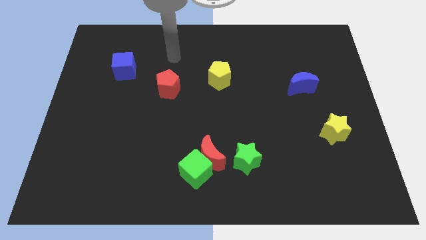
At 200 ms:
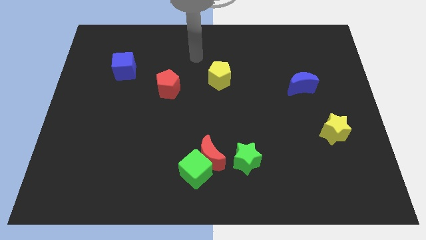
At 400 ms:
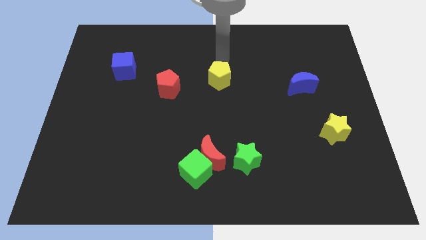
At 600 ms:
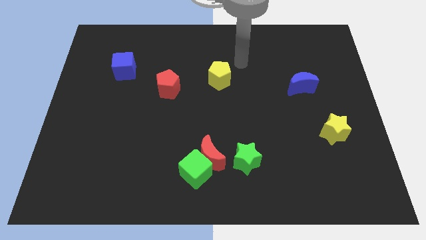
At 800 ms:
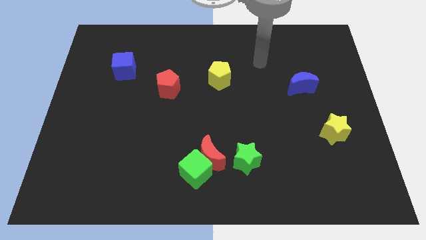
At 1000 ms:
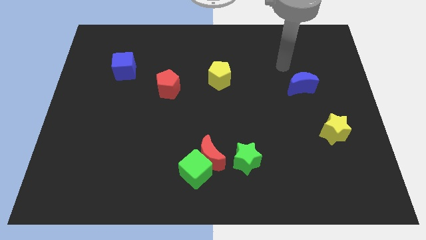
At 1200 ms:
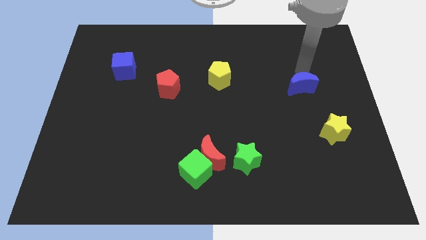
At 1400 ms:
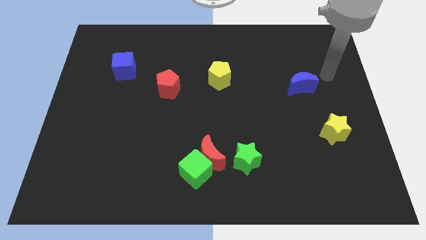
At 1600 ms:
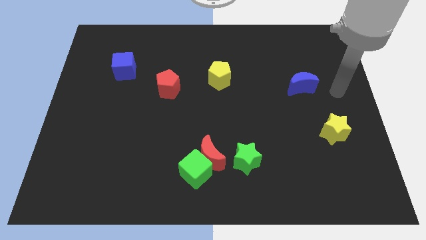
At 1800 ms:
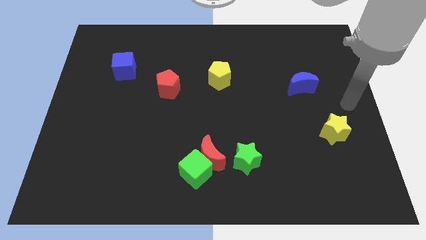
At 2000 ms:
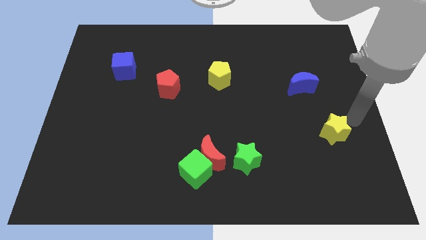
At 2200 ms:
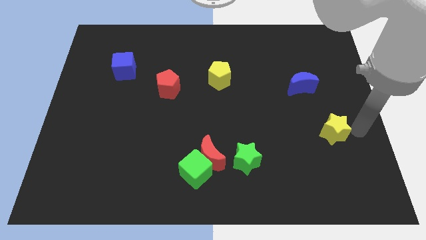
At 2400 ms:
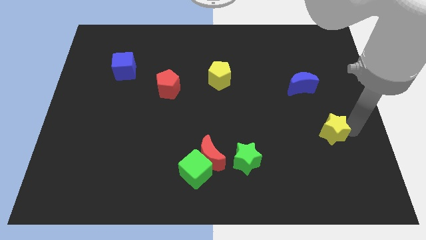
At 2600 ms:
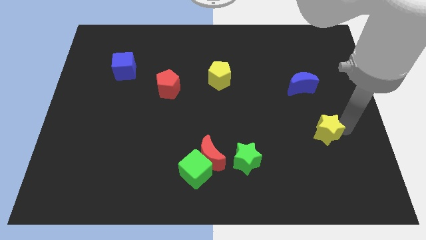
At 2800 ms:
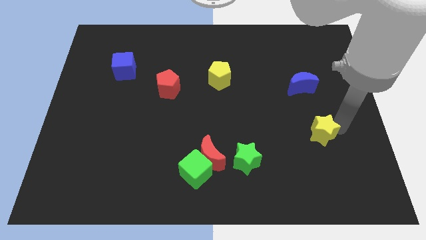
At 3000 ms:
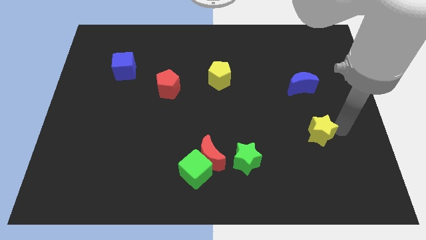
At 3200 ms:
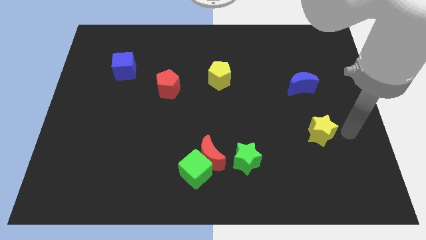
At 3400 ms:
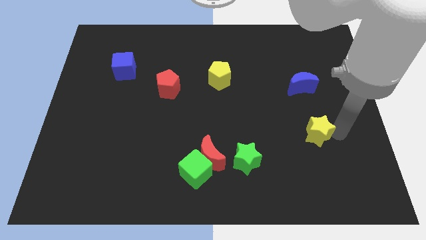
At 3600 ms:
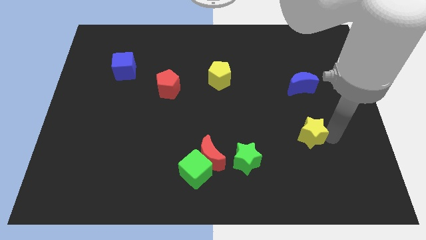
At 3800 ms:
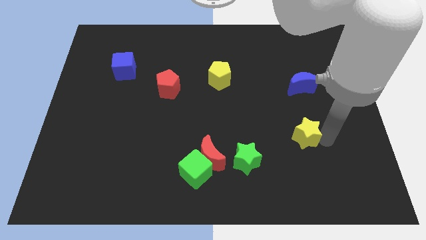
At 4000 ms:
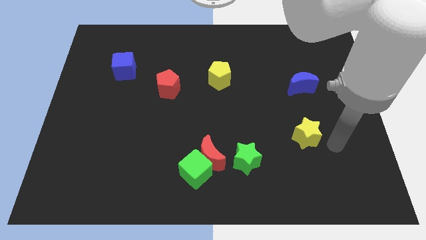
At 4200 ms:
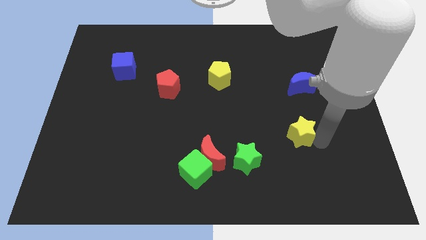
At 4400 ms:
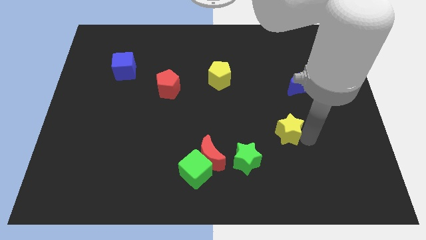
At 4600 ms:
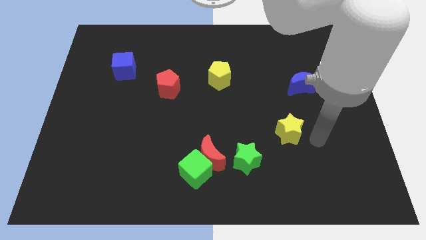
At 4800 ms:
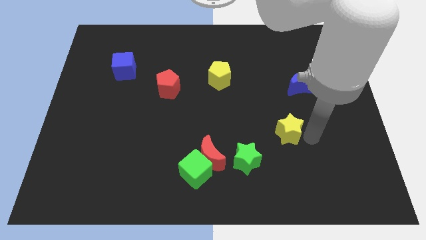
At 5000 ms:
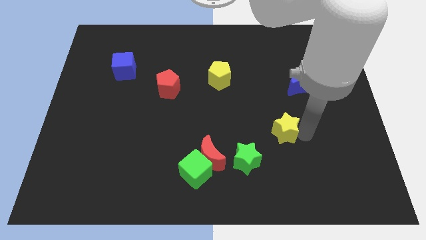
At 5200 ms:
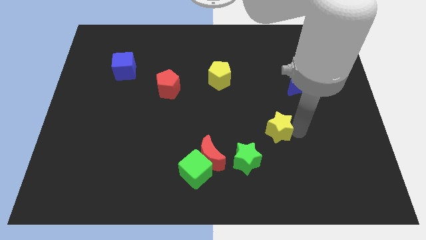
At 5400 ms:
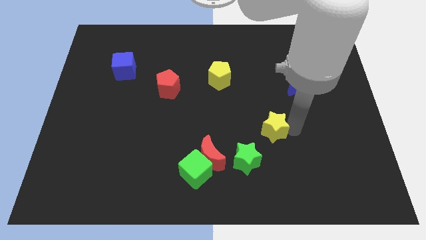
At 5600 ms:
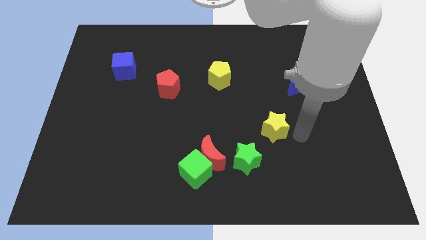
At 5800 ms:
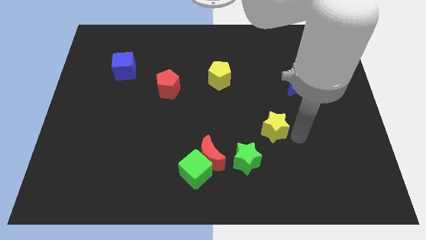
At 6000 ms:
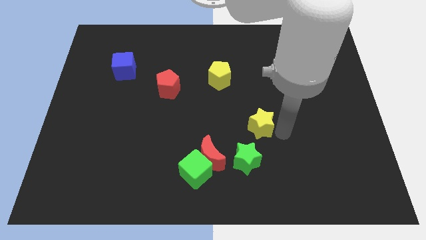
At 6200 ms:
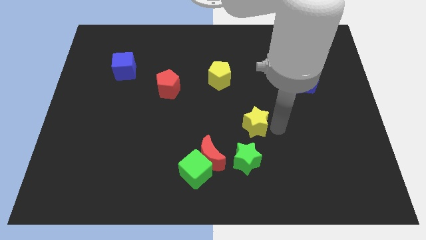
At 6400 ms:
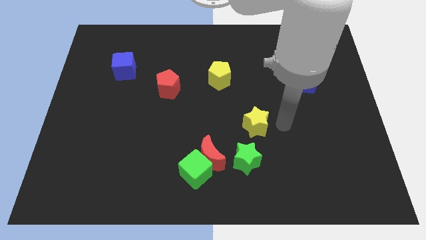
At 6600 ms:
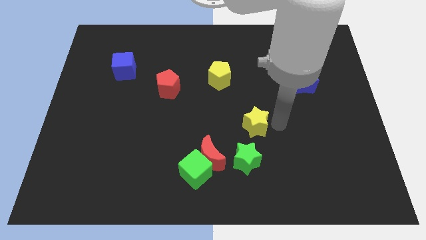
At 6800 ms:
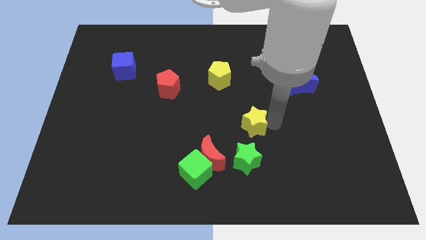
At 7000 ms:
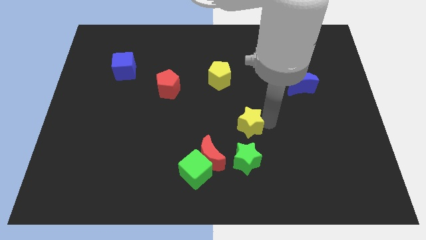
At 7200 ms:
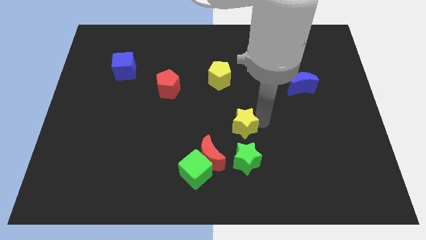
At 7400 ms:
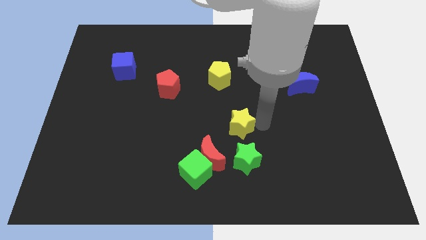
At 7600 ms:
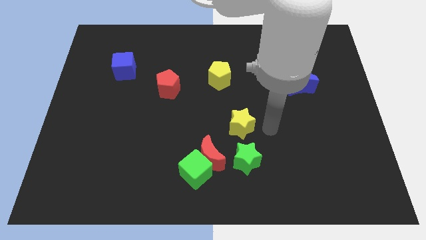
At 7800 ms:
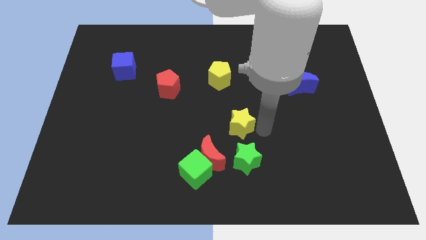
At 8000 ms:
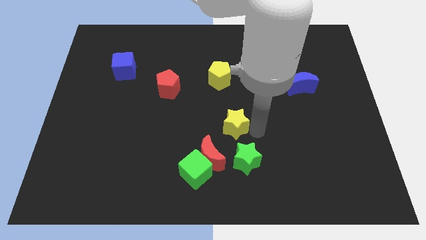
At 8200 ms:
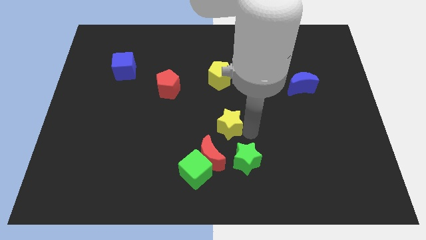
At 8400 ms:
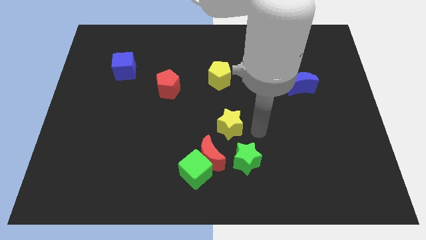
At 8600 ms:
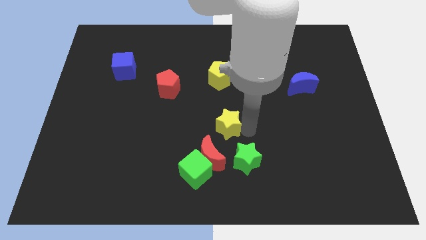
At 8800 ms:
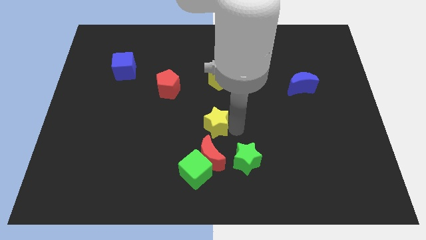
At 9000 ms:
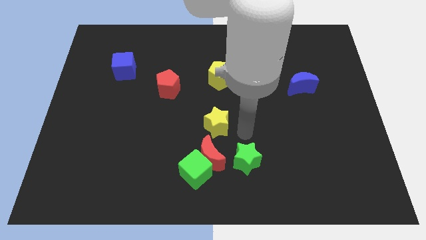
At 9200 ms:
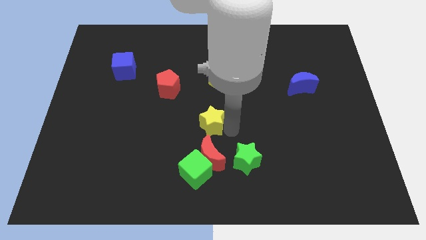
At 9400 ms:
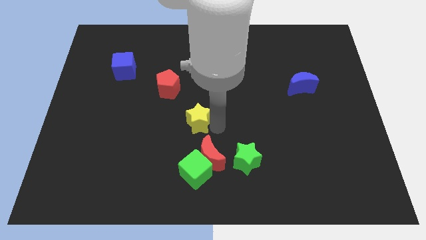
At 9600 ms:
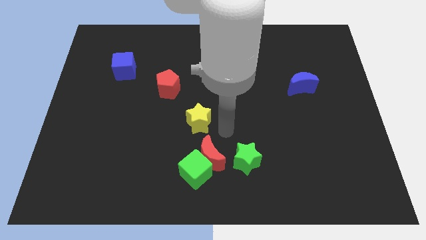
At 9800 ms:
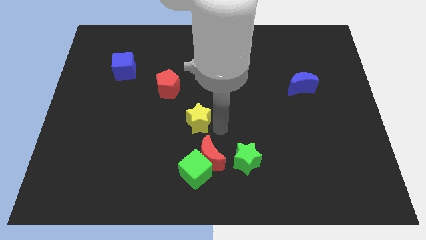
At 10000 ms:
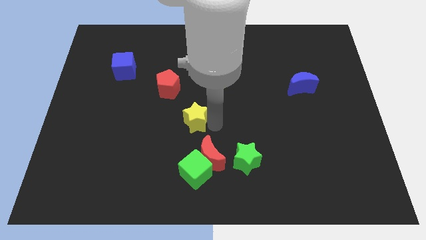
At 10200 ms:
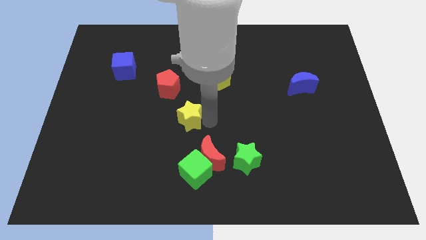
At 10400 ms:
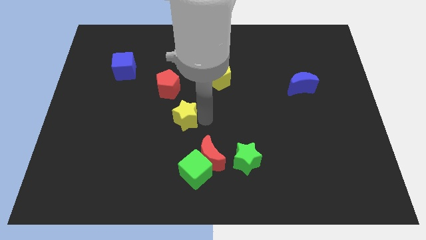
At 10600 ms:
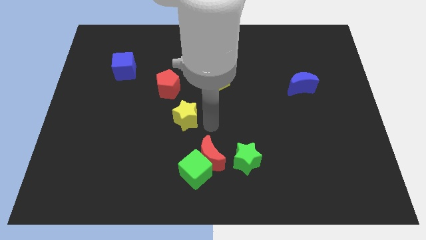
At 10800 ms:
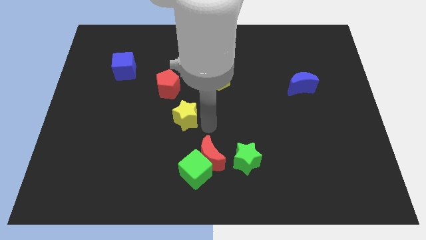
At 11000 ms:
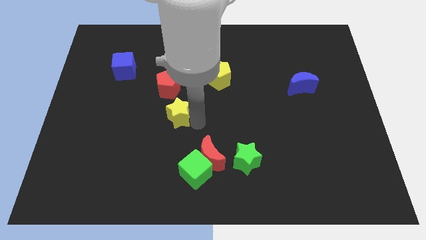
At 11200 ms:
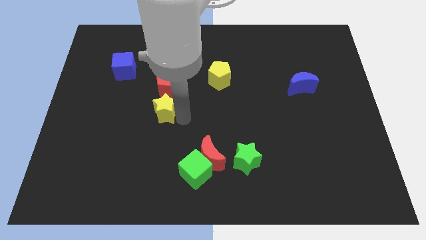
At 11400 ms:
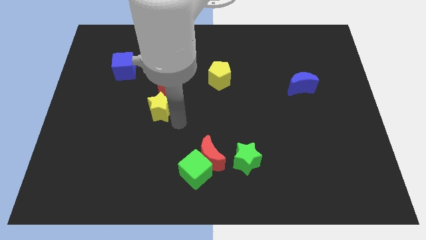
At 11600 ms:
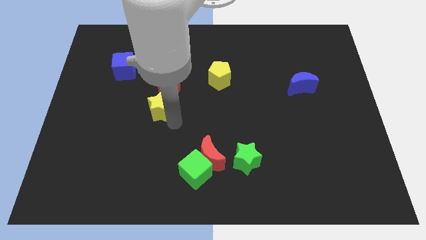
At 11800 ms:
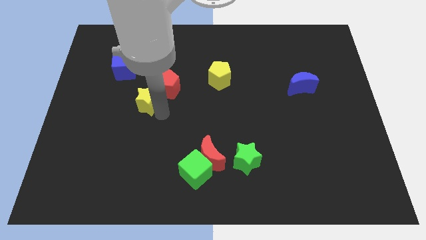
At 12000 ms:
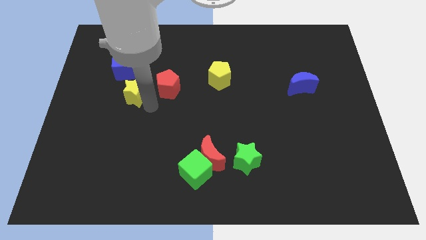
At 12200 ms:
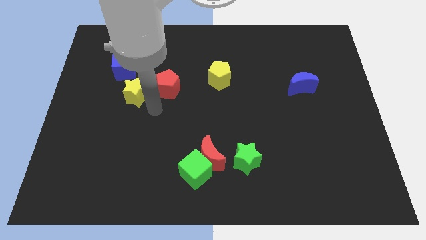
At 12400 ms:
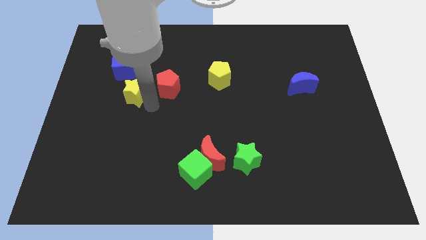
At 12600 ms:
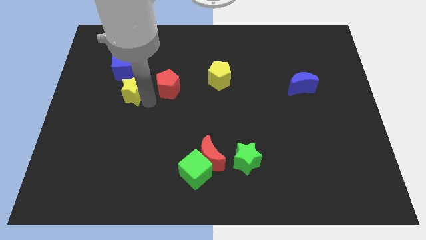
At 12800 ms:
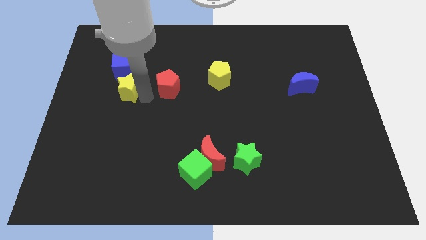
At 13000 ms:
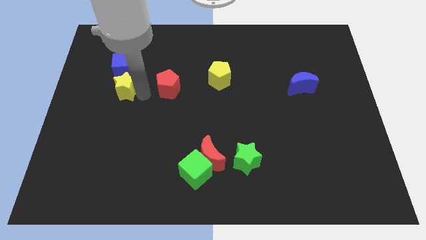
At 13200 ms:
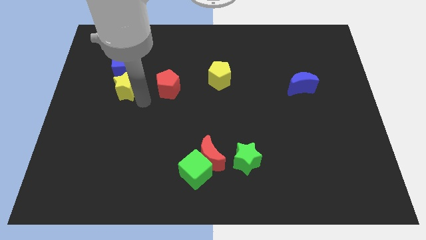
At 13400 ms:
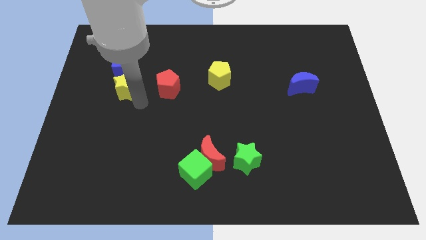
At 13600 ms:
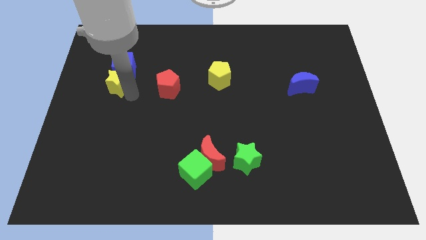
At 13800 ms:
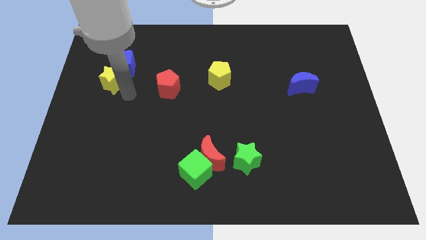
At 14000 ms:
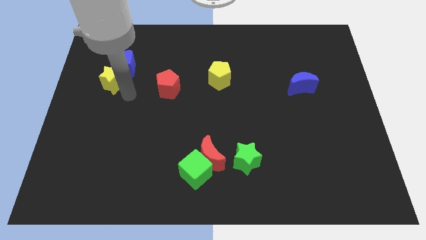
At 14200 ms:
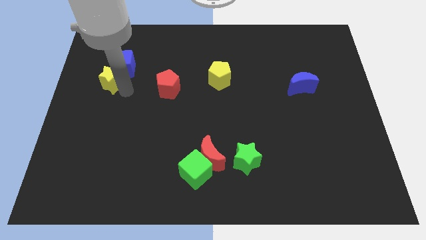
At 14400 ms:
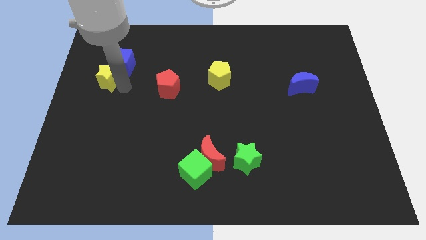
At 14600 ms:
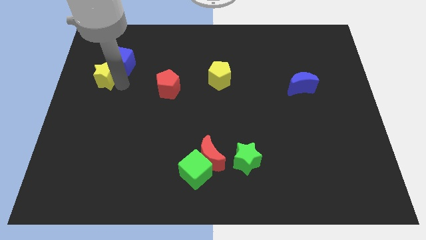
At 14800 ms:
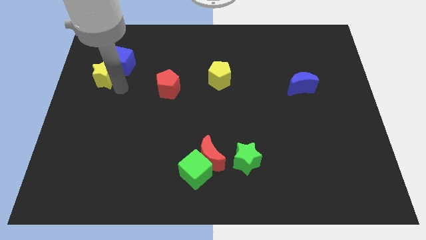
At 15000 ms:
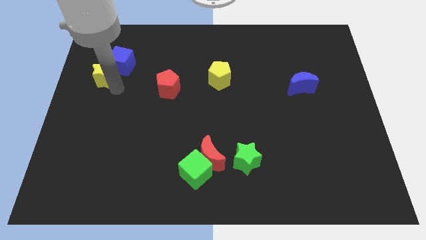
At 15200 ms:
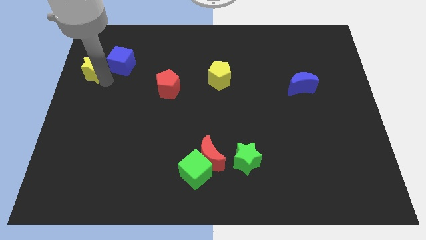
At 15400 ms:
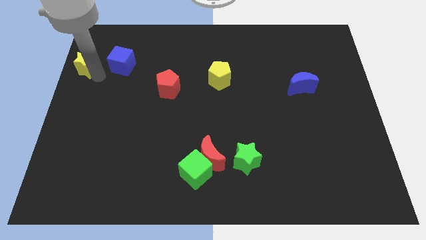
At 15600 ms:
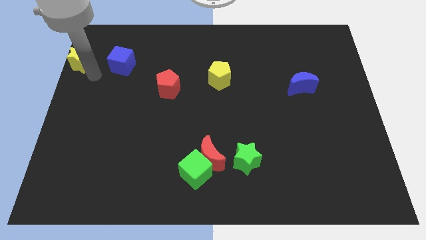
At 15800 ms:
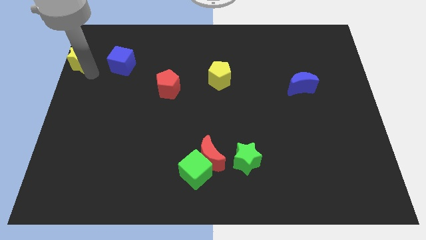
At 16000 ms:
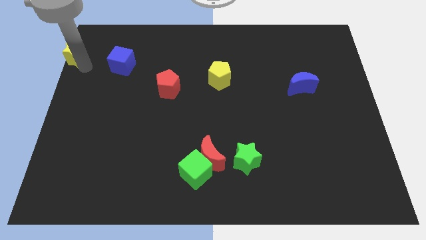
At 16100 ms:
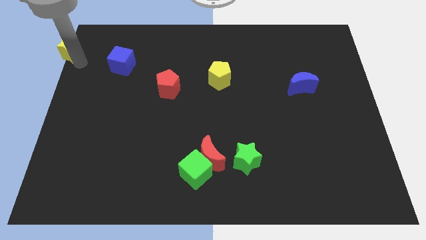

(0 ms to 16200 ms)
slide the yellow star to the top left
